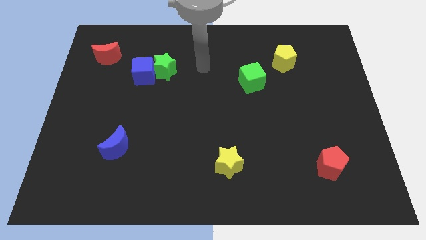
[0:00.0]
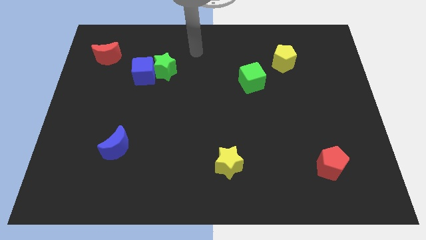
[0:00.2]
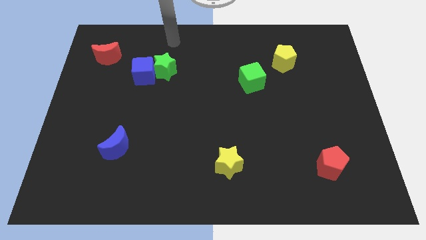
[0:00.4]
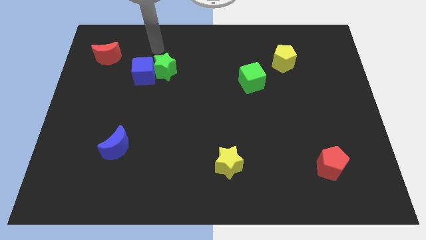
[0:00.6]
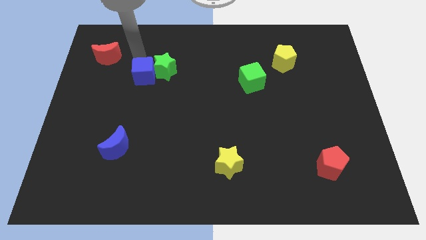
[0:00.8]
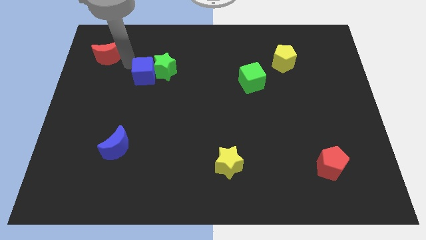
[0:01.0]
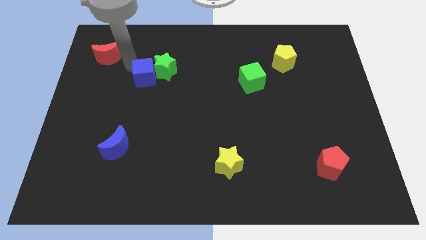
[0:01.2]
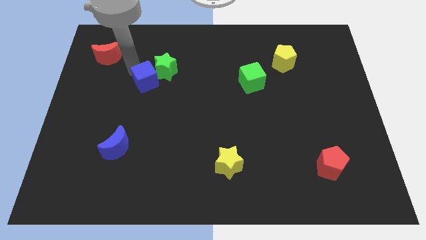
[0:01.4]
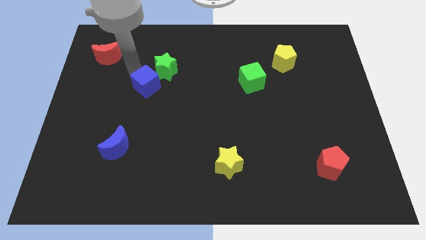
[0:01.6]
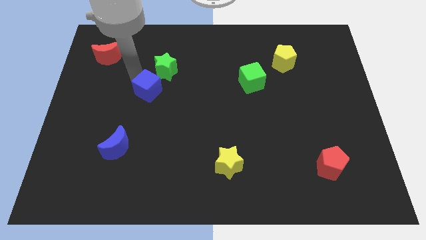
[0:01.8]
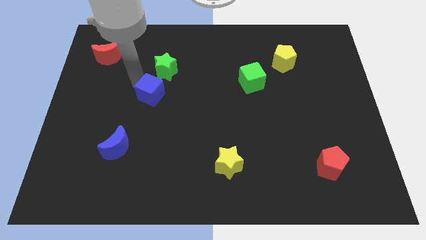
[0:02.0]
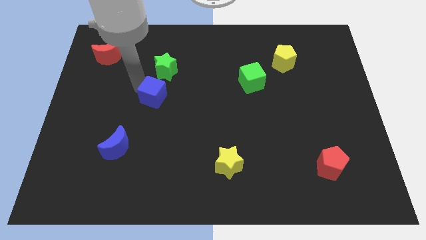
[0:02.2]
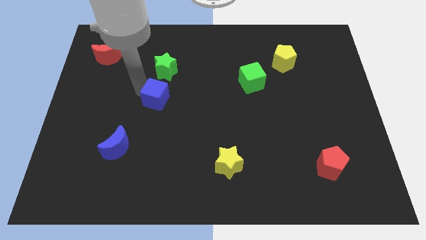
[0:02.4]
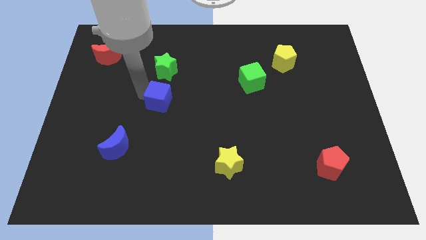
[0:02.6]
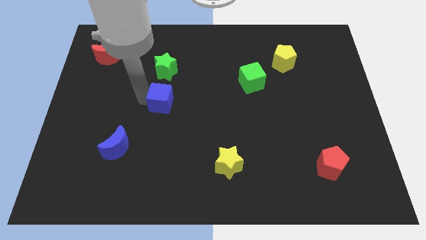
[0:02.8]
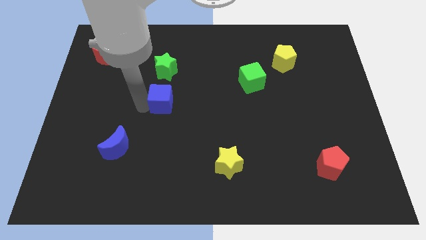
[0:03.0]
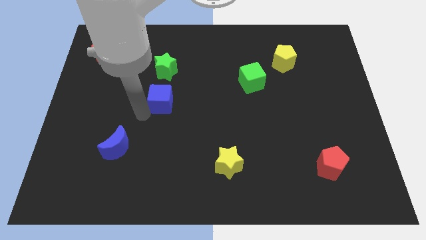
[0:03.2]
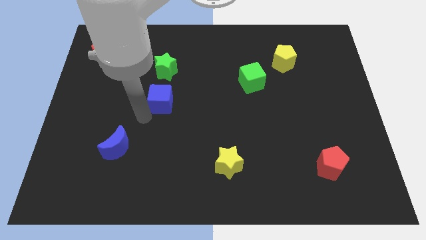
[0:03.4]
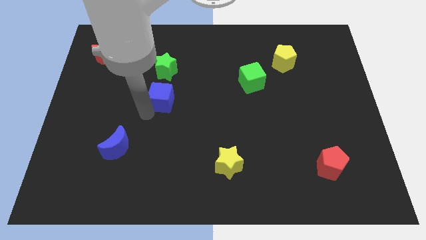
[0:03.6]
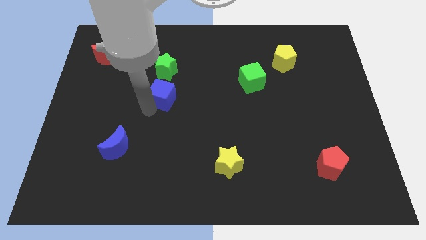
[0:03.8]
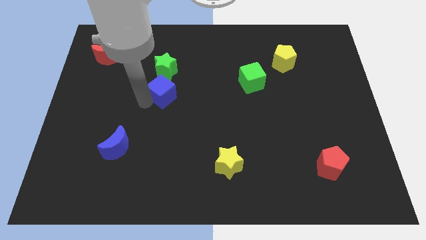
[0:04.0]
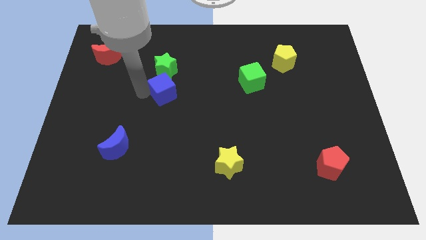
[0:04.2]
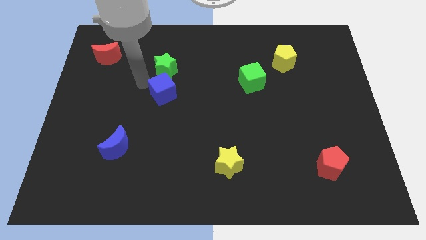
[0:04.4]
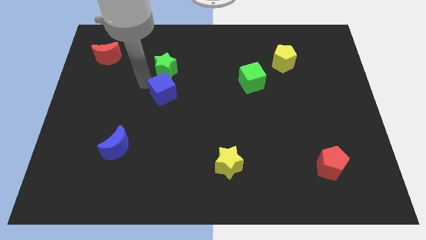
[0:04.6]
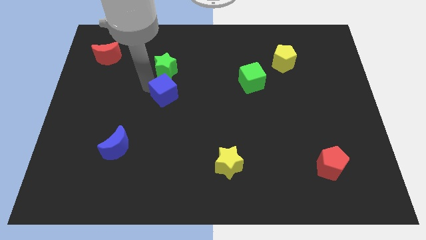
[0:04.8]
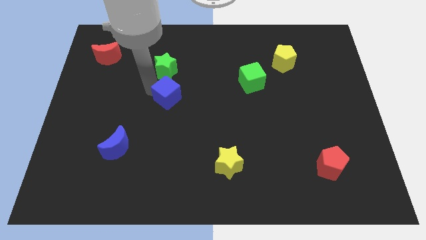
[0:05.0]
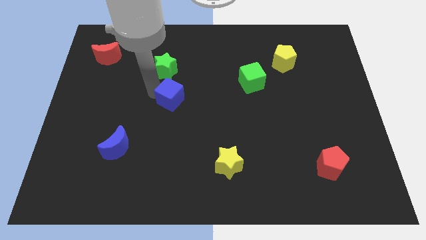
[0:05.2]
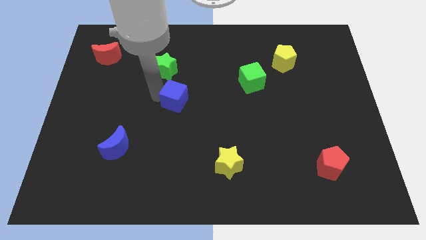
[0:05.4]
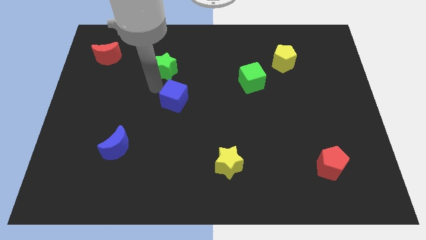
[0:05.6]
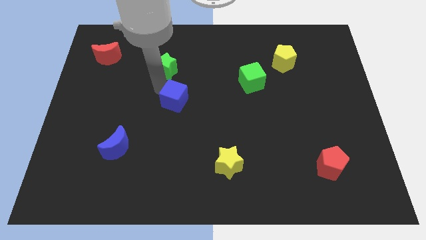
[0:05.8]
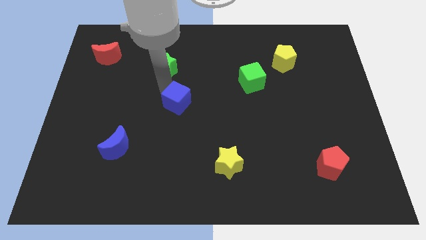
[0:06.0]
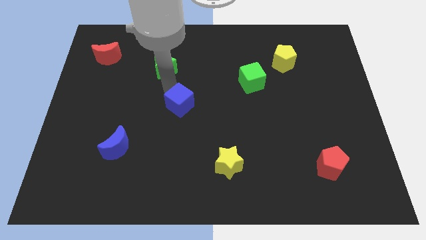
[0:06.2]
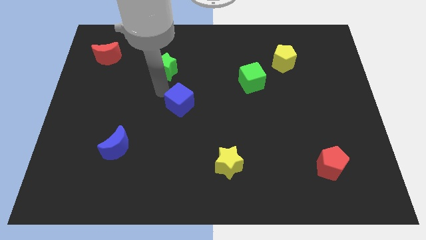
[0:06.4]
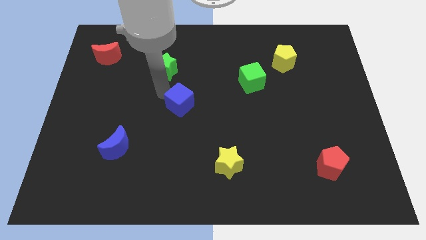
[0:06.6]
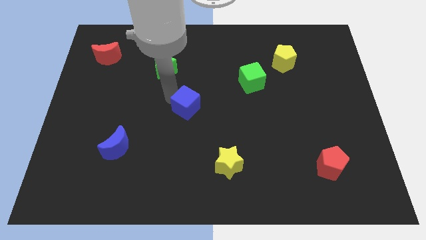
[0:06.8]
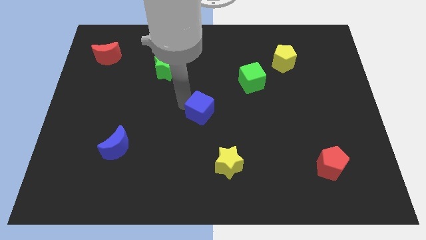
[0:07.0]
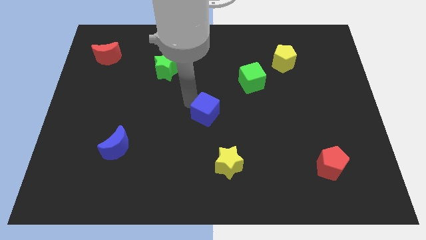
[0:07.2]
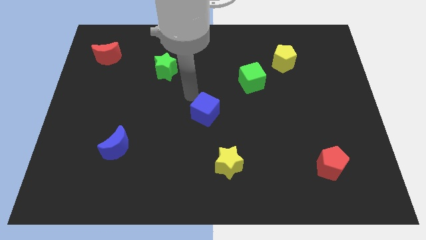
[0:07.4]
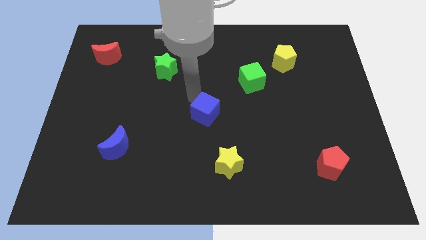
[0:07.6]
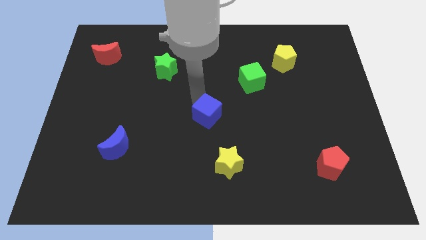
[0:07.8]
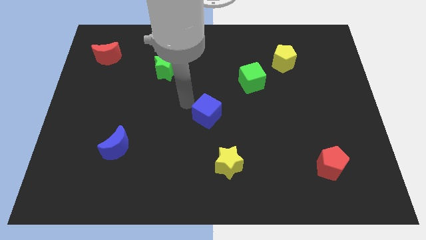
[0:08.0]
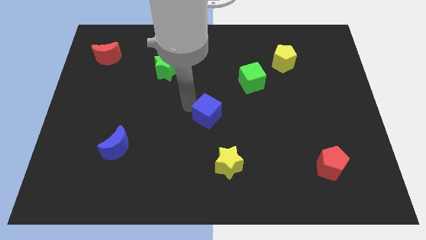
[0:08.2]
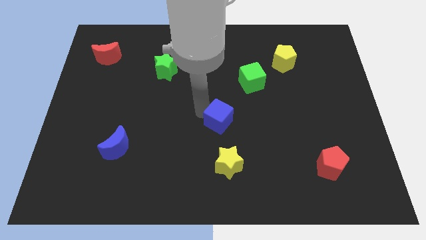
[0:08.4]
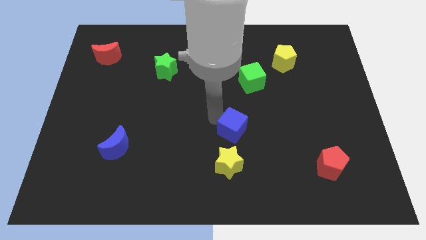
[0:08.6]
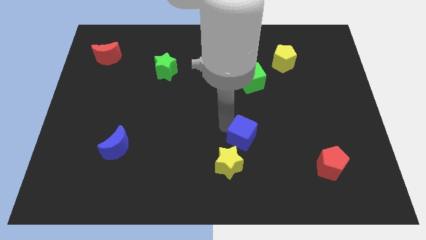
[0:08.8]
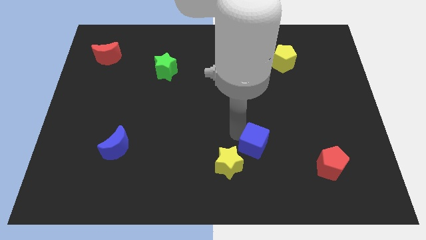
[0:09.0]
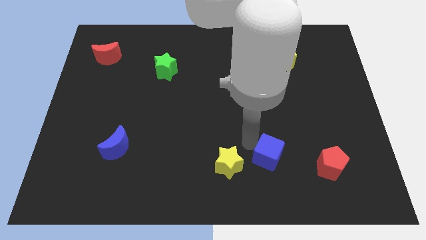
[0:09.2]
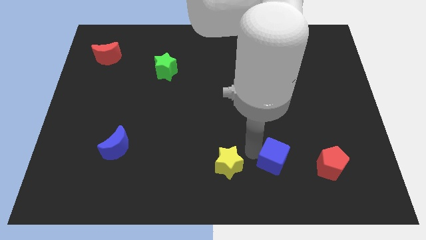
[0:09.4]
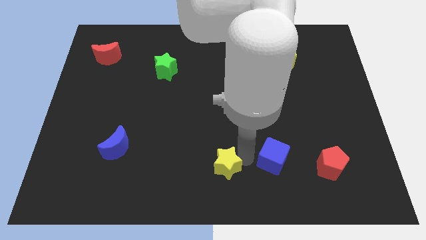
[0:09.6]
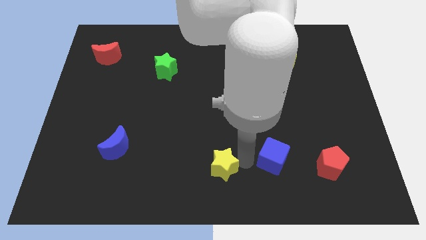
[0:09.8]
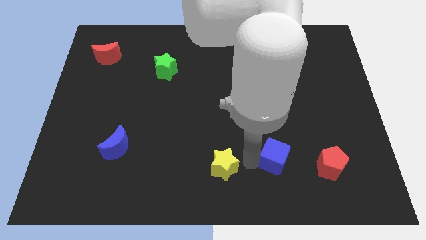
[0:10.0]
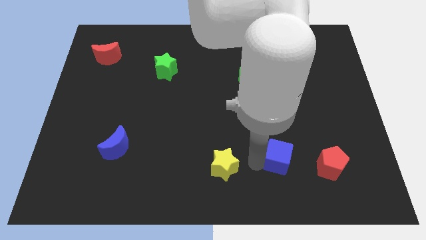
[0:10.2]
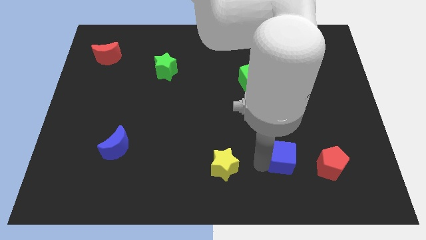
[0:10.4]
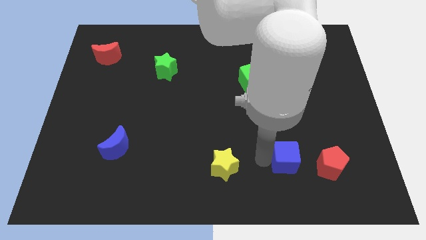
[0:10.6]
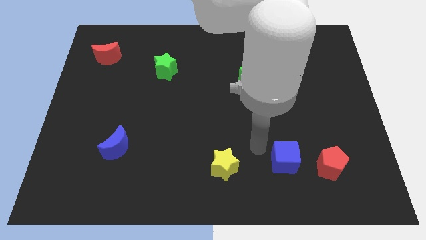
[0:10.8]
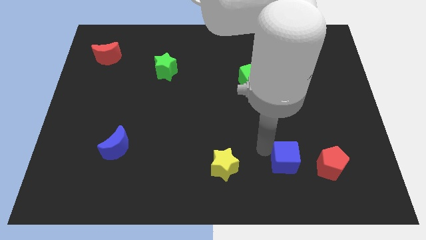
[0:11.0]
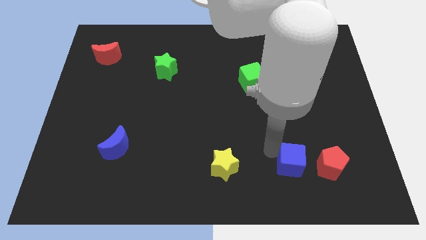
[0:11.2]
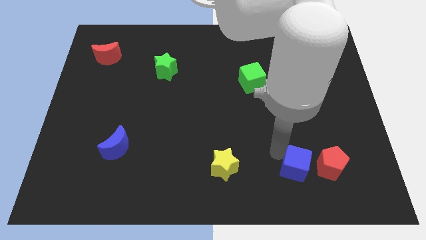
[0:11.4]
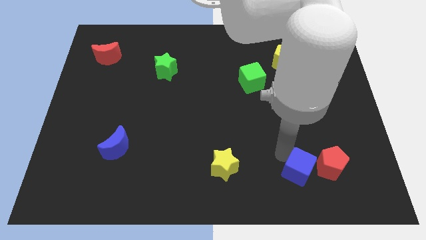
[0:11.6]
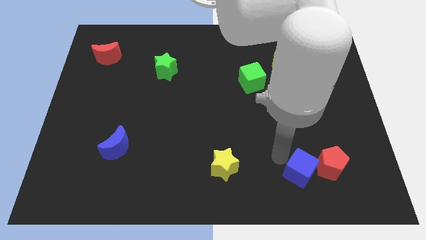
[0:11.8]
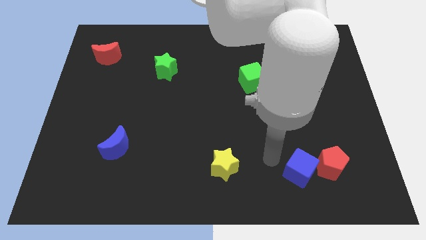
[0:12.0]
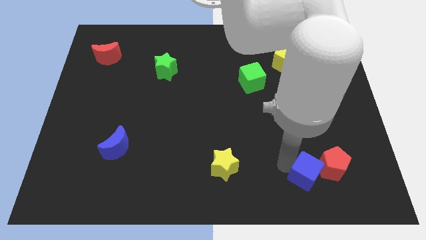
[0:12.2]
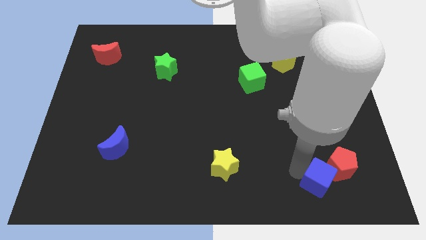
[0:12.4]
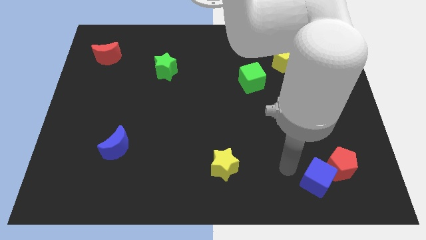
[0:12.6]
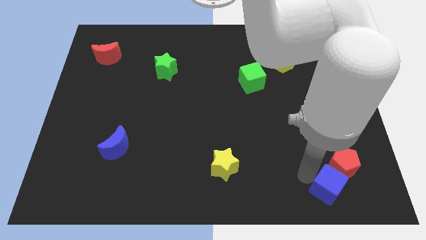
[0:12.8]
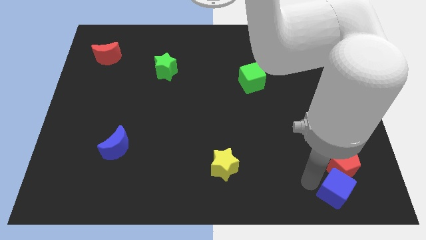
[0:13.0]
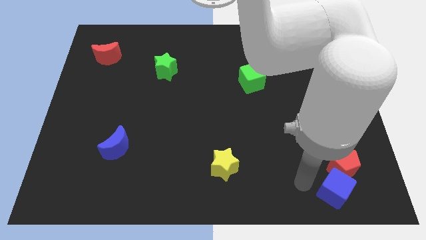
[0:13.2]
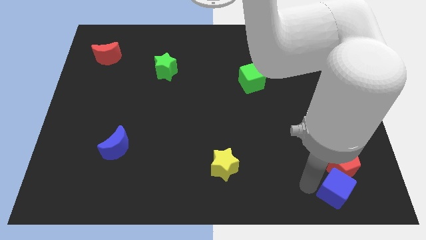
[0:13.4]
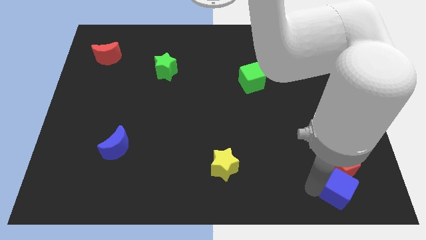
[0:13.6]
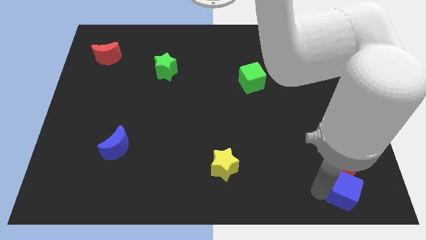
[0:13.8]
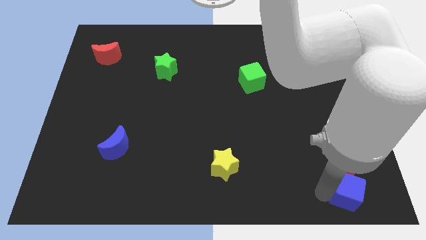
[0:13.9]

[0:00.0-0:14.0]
move the blue cube to the lower right corner
